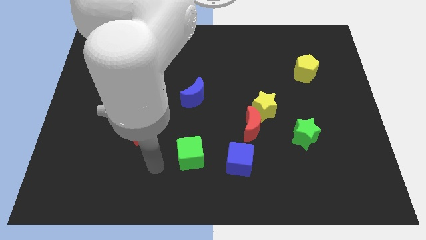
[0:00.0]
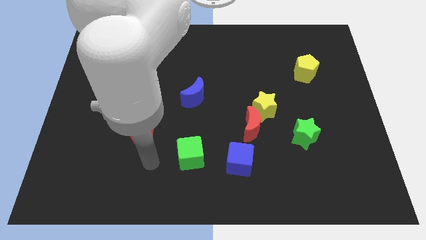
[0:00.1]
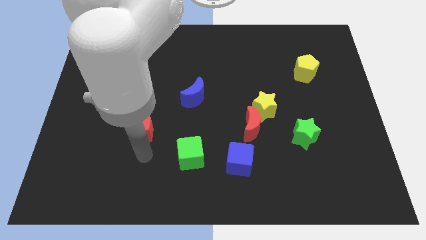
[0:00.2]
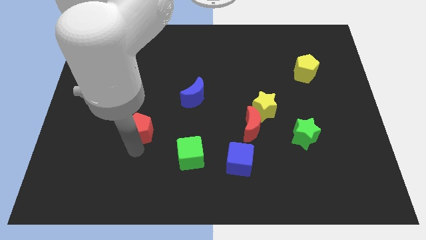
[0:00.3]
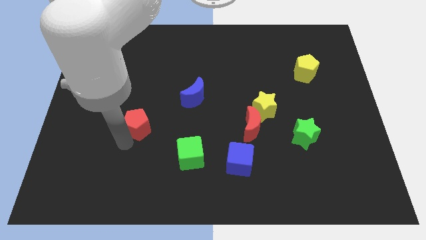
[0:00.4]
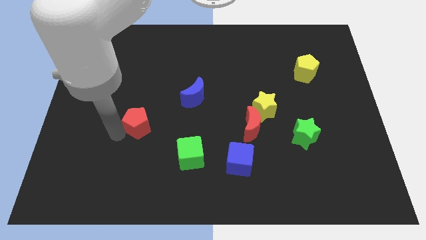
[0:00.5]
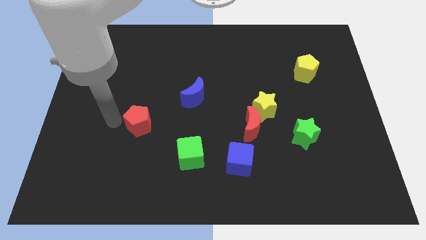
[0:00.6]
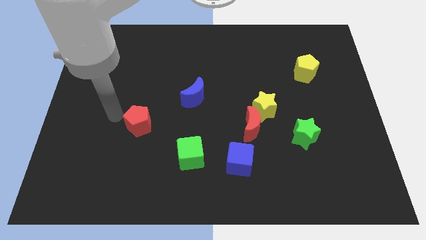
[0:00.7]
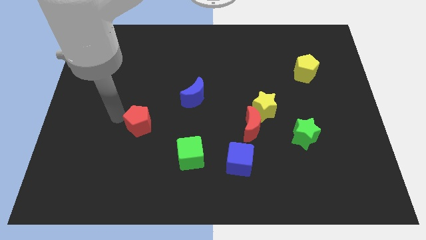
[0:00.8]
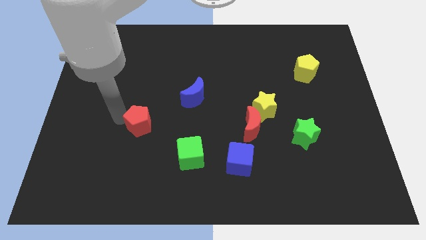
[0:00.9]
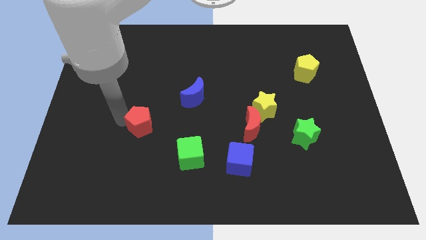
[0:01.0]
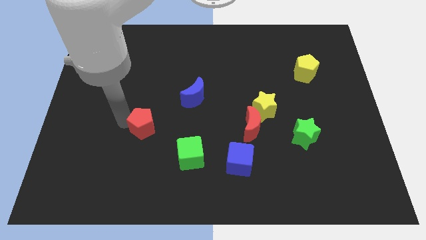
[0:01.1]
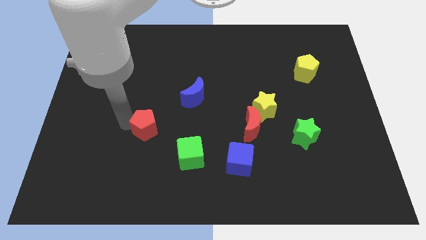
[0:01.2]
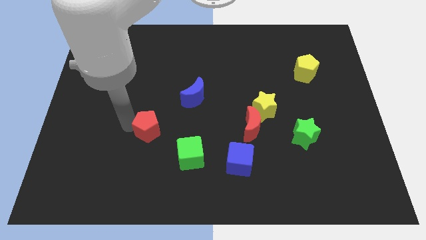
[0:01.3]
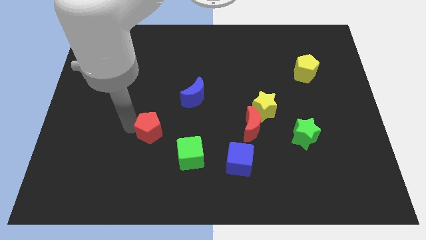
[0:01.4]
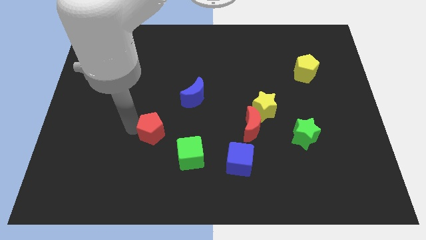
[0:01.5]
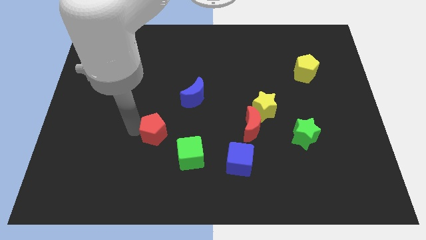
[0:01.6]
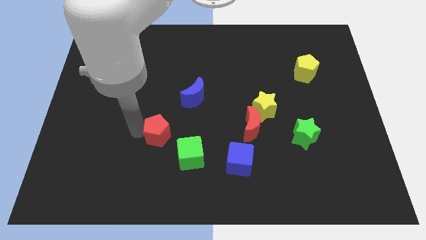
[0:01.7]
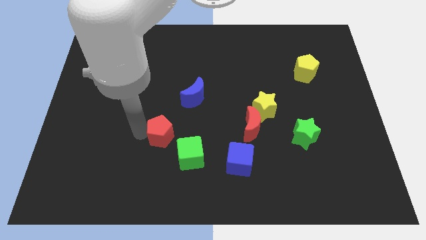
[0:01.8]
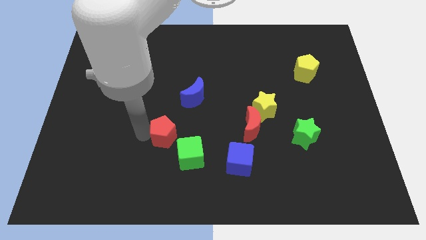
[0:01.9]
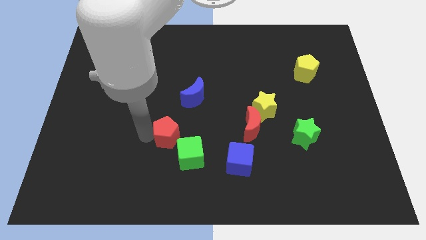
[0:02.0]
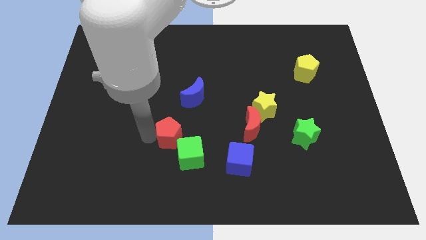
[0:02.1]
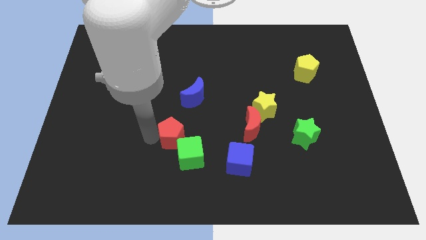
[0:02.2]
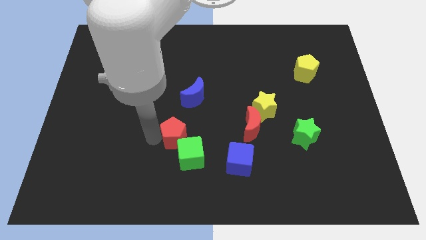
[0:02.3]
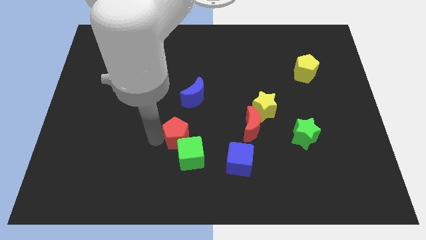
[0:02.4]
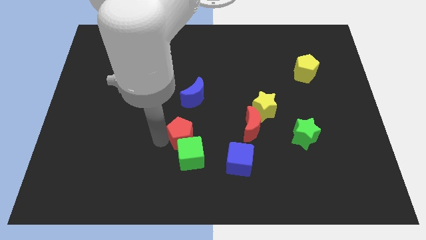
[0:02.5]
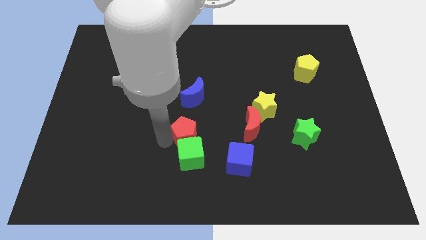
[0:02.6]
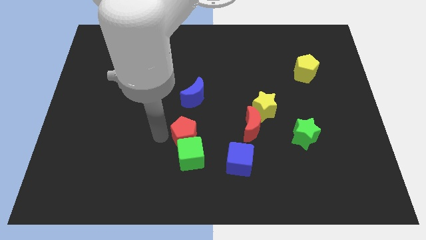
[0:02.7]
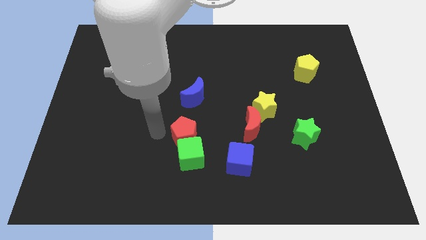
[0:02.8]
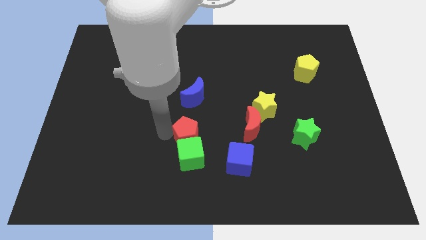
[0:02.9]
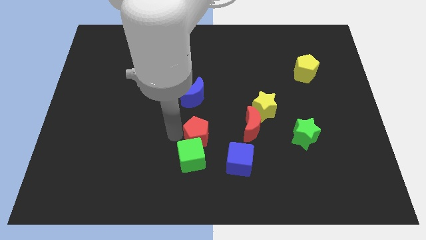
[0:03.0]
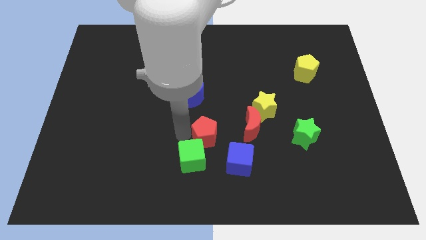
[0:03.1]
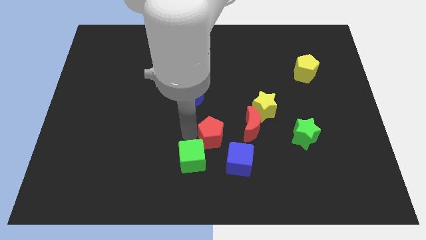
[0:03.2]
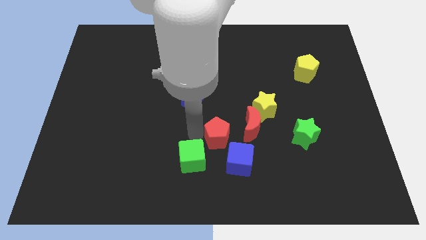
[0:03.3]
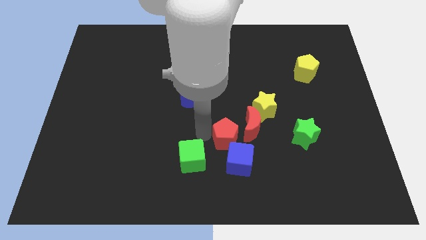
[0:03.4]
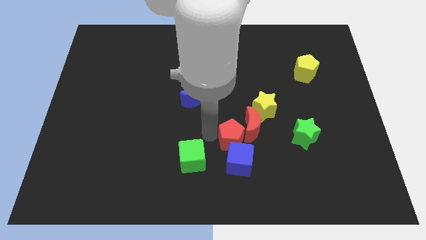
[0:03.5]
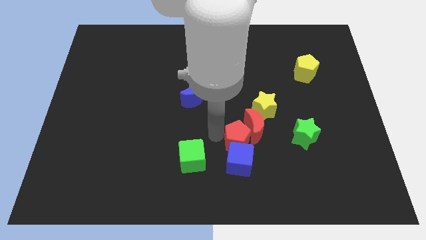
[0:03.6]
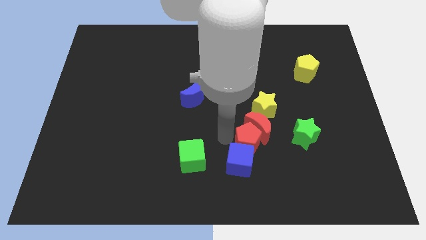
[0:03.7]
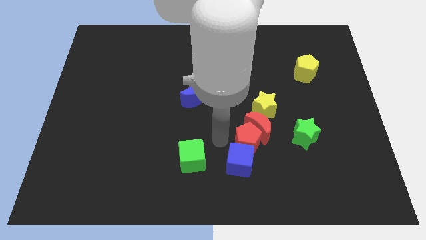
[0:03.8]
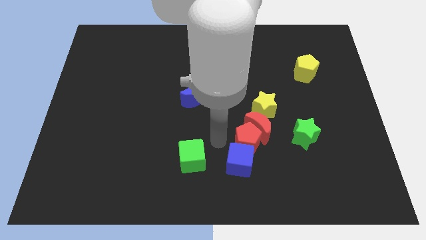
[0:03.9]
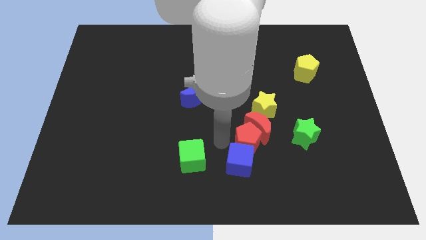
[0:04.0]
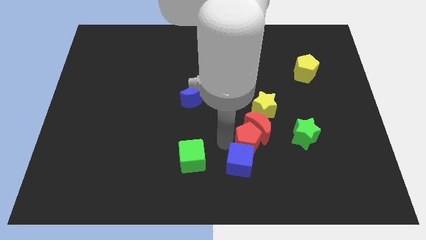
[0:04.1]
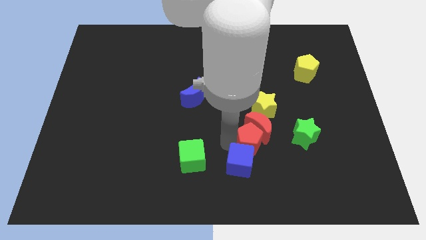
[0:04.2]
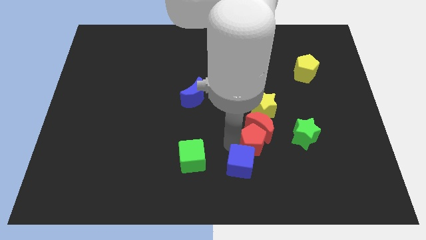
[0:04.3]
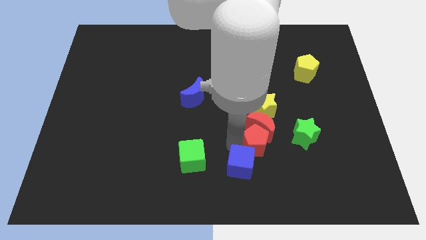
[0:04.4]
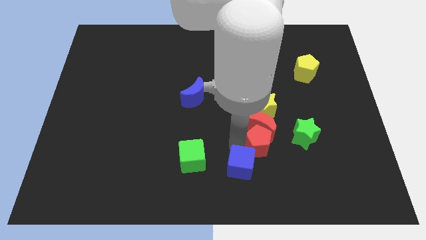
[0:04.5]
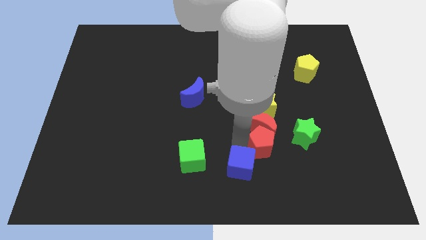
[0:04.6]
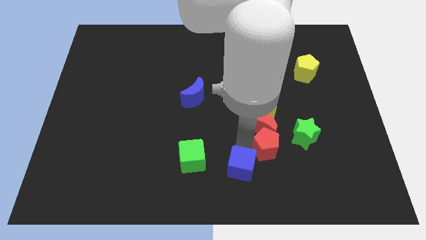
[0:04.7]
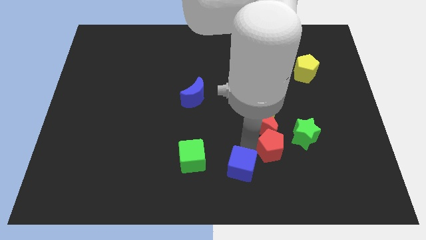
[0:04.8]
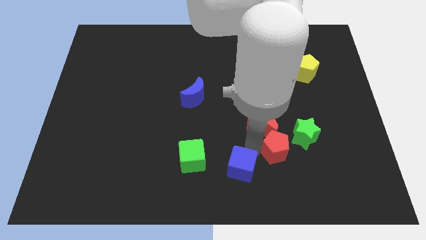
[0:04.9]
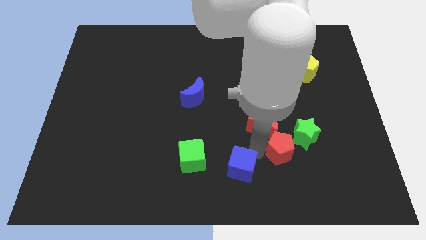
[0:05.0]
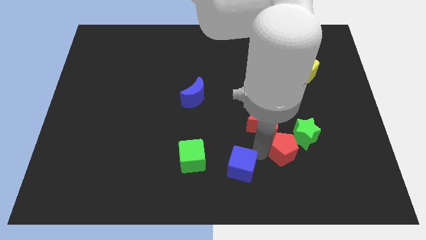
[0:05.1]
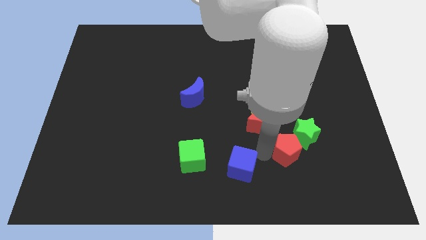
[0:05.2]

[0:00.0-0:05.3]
slide the red pentagon next to the green star

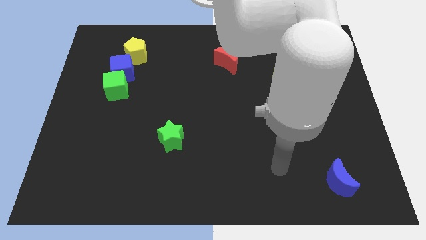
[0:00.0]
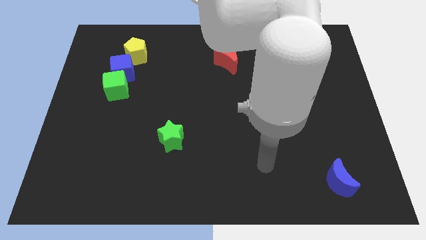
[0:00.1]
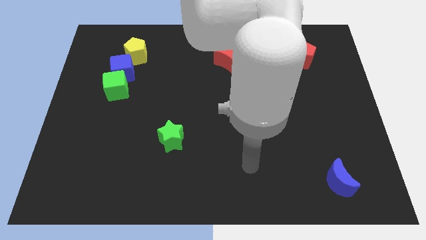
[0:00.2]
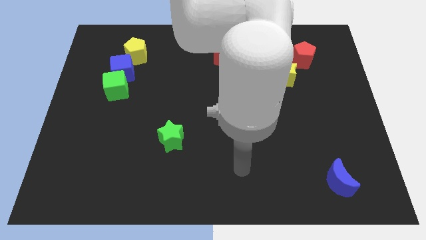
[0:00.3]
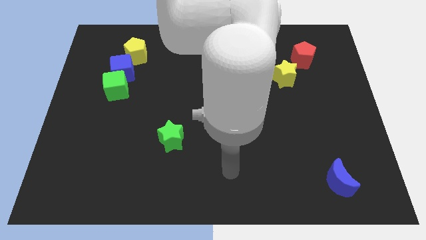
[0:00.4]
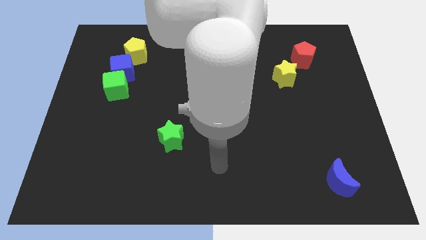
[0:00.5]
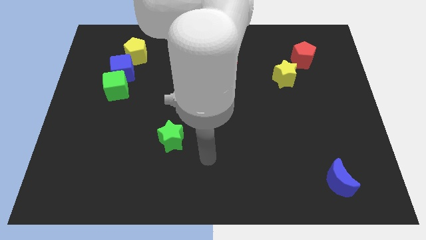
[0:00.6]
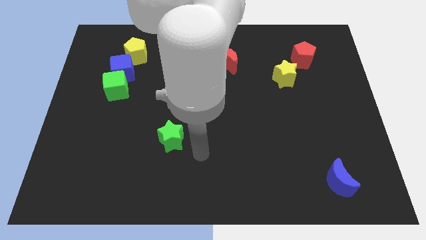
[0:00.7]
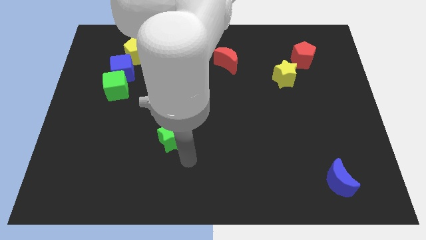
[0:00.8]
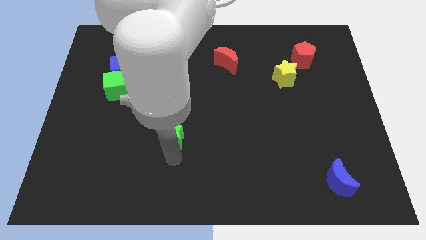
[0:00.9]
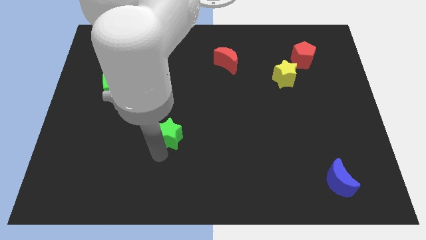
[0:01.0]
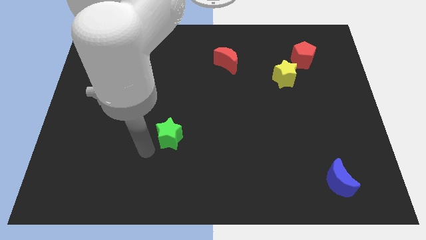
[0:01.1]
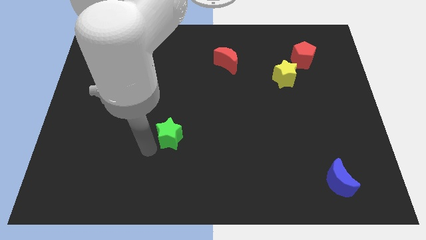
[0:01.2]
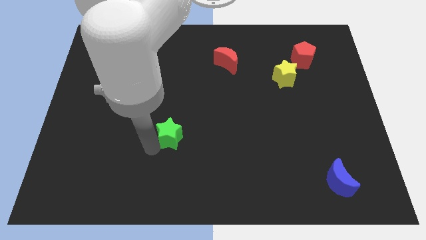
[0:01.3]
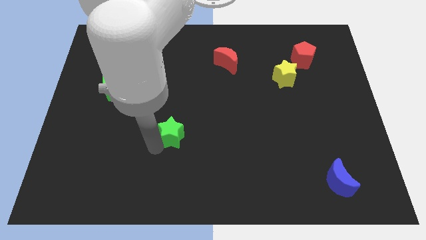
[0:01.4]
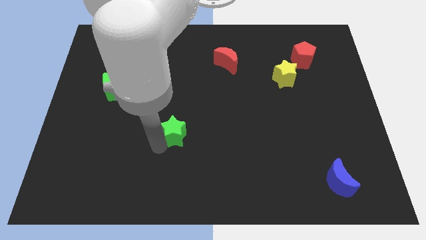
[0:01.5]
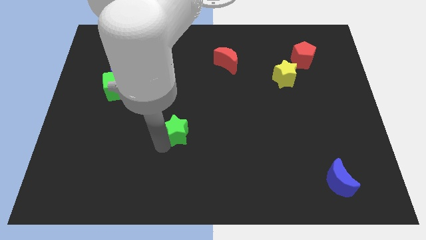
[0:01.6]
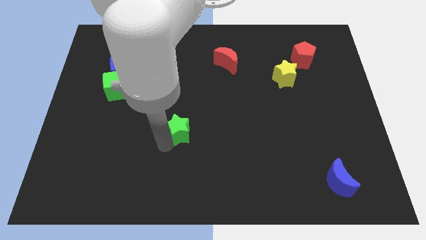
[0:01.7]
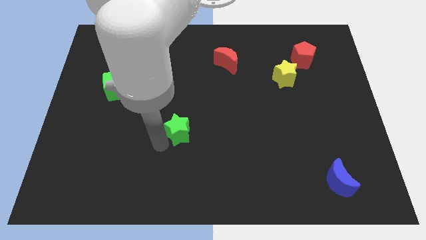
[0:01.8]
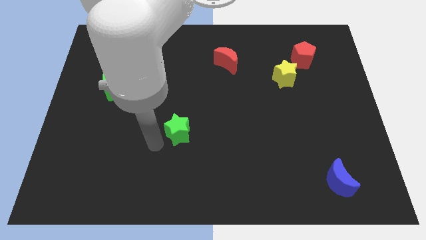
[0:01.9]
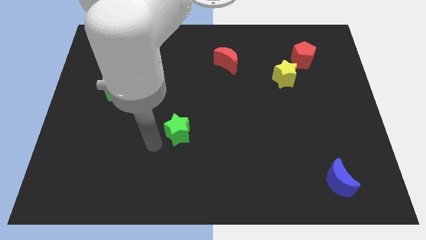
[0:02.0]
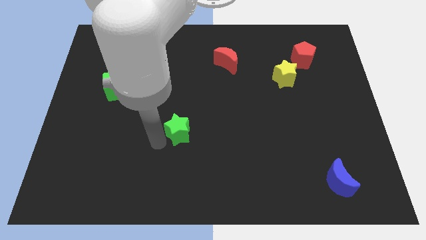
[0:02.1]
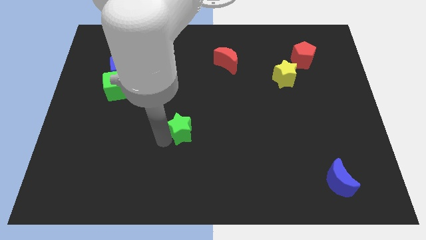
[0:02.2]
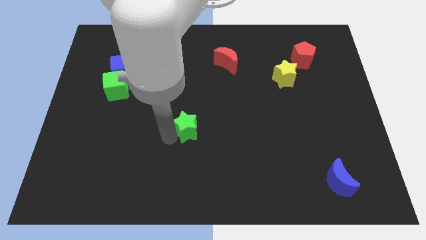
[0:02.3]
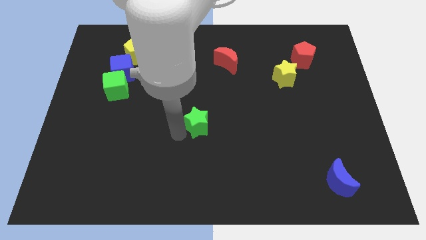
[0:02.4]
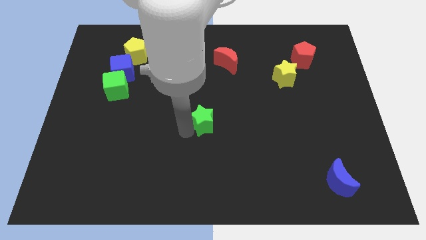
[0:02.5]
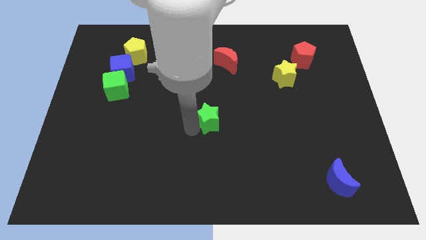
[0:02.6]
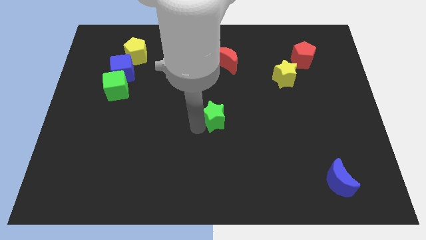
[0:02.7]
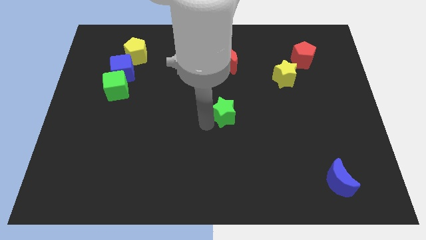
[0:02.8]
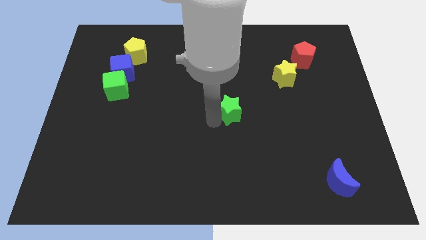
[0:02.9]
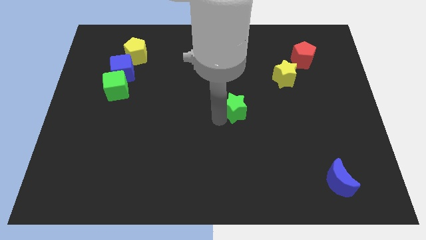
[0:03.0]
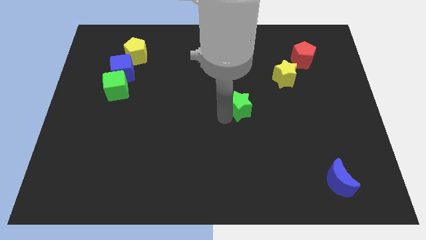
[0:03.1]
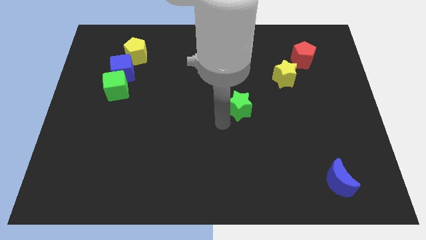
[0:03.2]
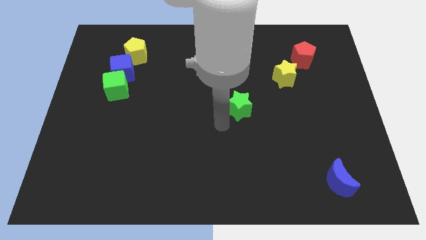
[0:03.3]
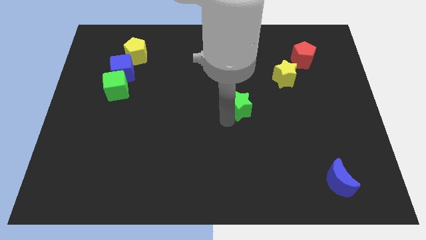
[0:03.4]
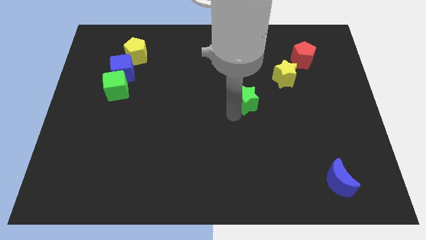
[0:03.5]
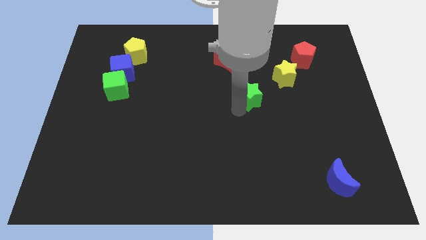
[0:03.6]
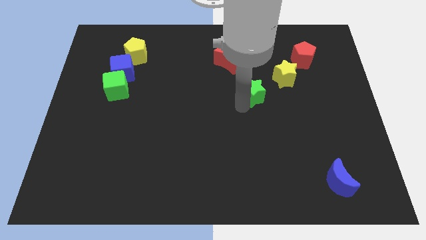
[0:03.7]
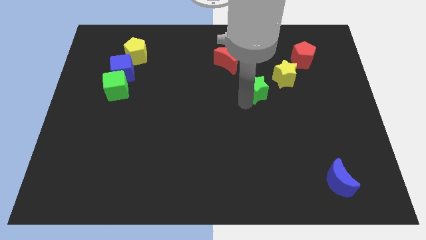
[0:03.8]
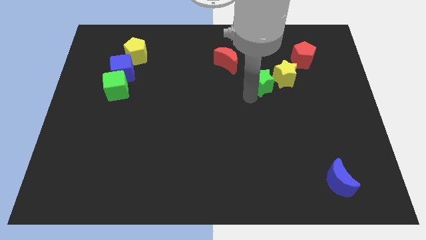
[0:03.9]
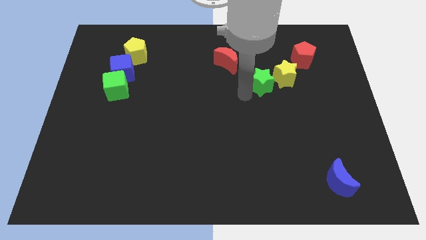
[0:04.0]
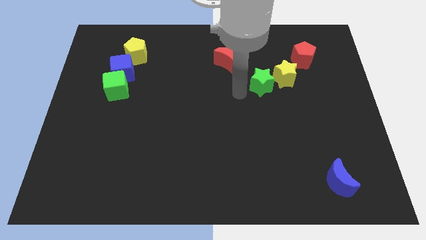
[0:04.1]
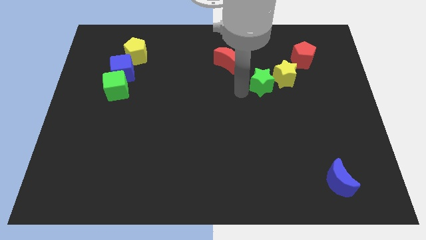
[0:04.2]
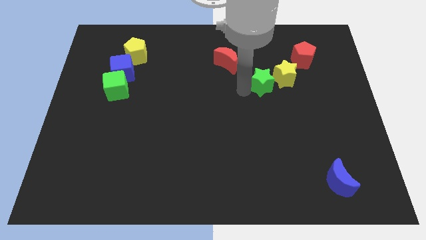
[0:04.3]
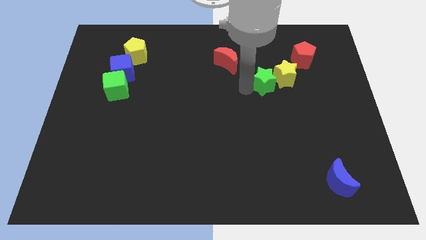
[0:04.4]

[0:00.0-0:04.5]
put the green star next to the yellow star
